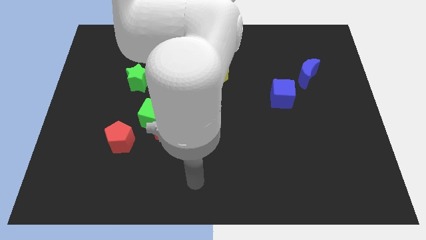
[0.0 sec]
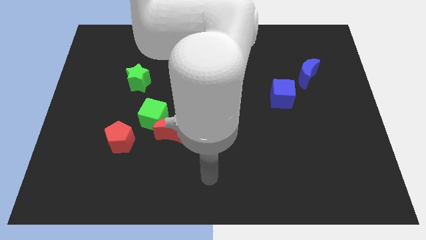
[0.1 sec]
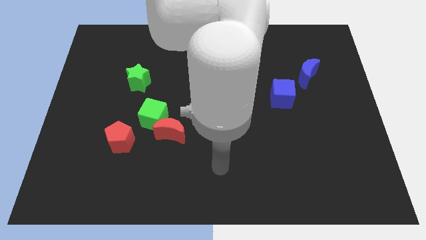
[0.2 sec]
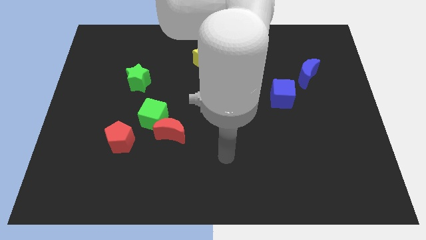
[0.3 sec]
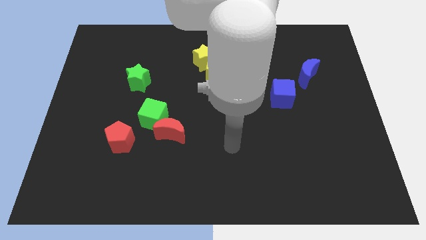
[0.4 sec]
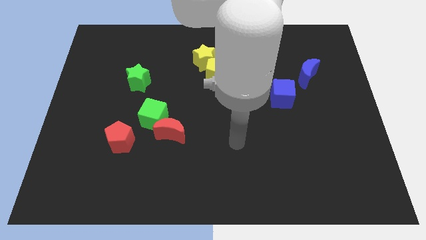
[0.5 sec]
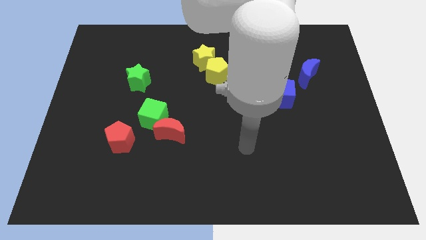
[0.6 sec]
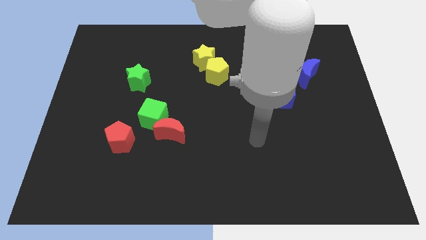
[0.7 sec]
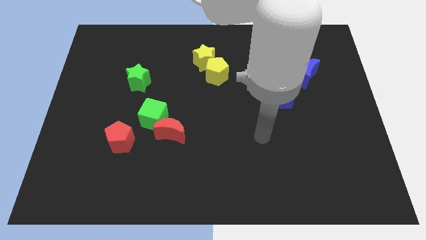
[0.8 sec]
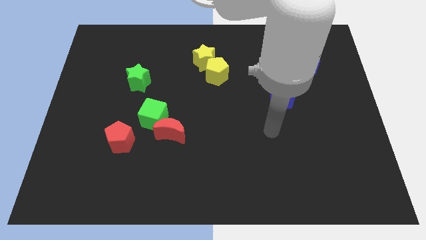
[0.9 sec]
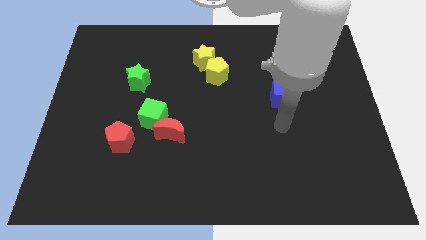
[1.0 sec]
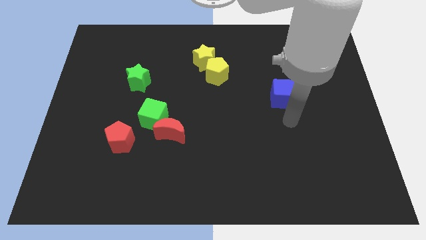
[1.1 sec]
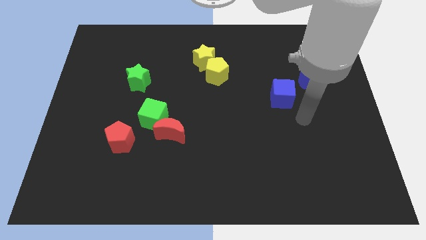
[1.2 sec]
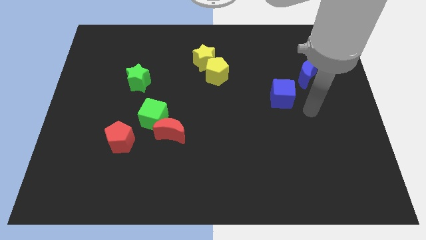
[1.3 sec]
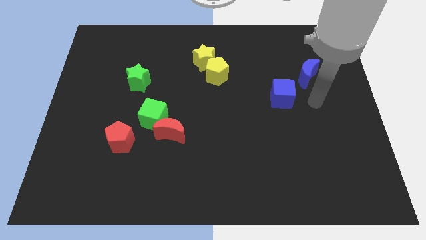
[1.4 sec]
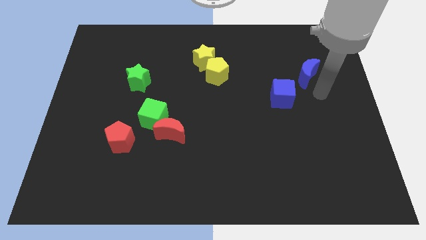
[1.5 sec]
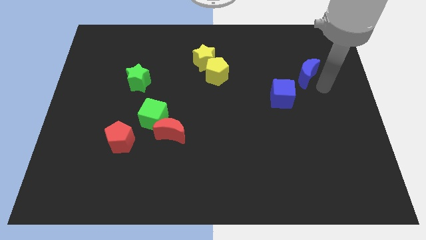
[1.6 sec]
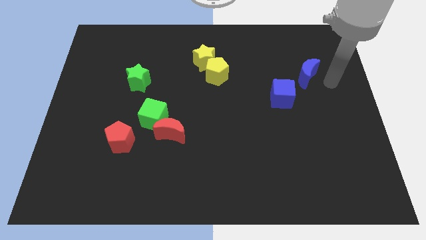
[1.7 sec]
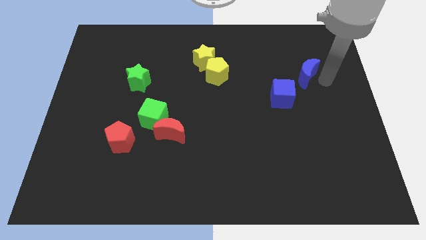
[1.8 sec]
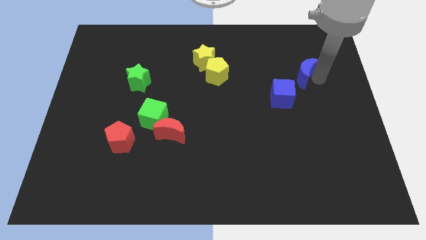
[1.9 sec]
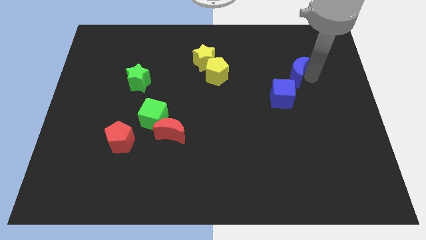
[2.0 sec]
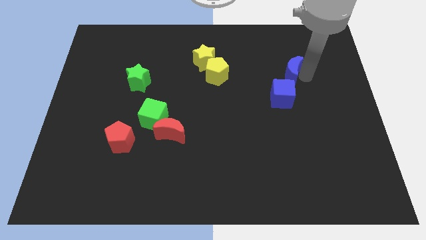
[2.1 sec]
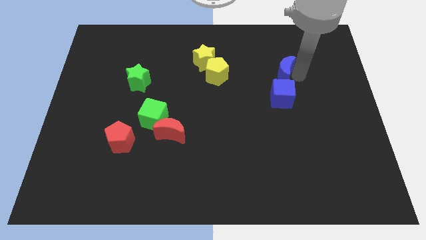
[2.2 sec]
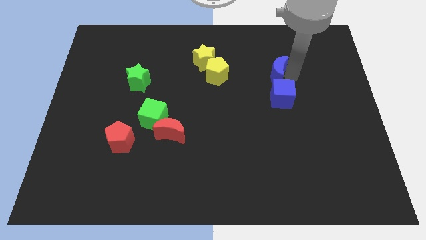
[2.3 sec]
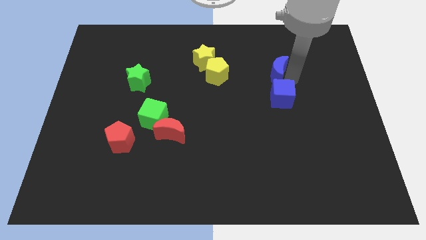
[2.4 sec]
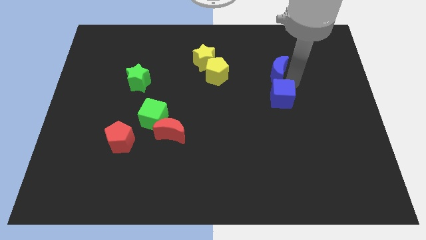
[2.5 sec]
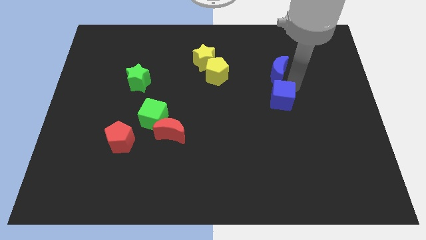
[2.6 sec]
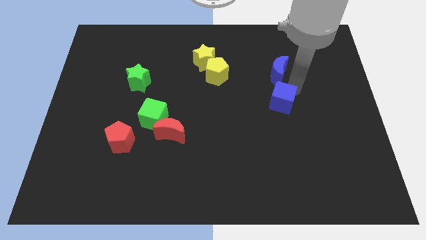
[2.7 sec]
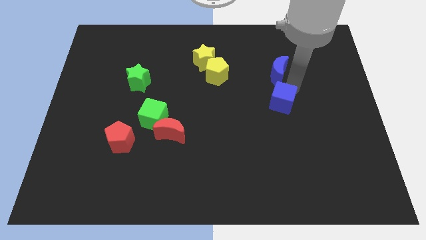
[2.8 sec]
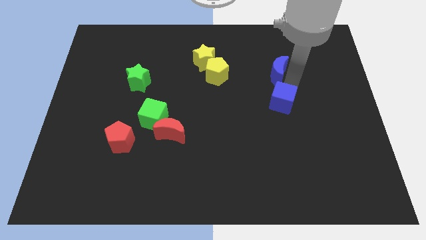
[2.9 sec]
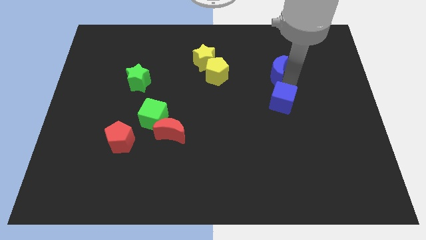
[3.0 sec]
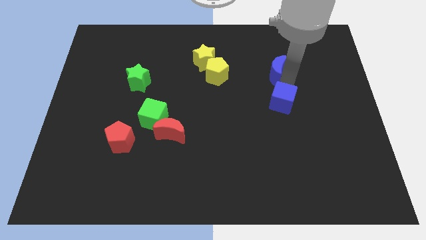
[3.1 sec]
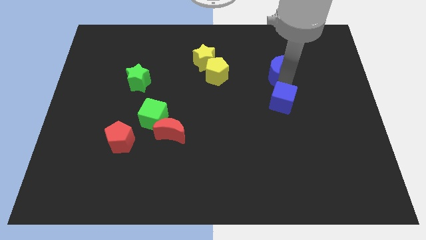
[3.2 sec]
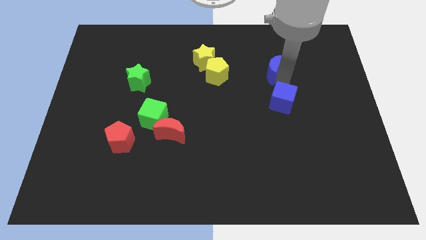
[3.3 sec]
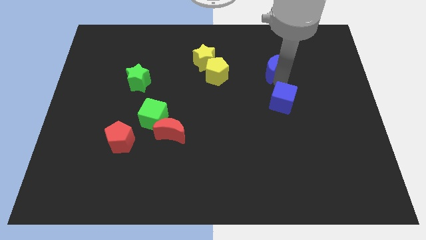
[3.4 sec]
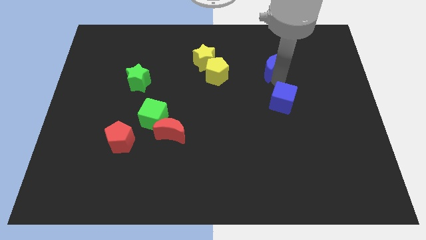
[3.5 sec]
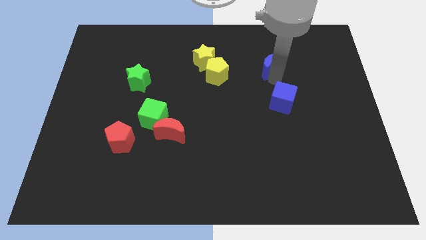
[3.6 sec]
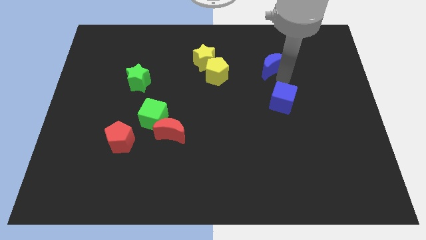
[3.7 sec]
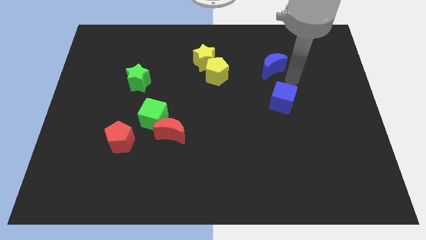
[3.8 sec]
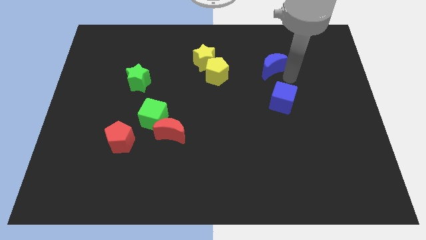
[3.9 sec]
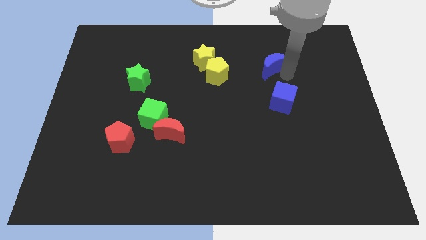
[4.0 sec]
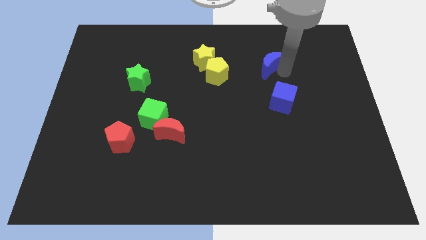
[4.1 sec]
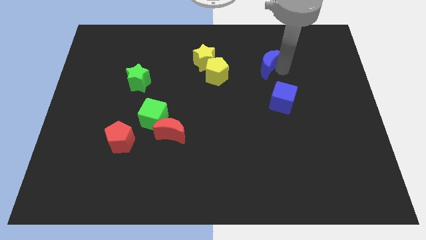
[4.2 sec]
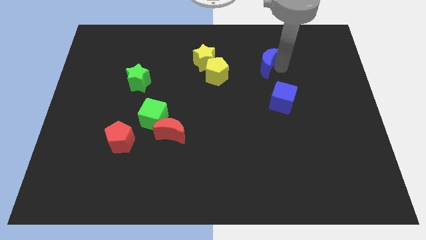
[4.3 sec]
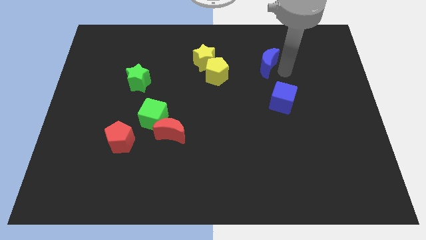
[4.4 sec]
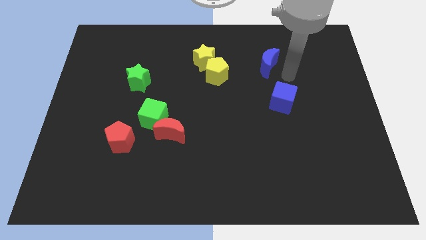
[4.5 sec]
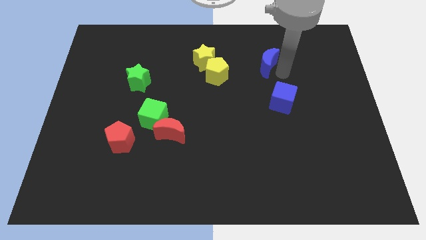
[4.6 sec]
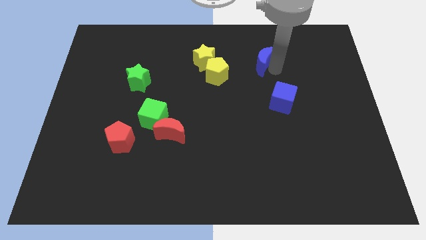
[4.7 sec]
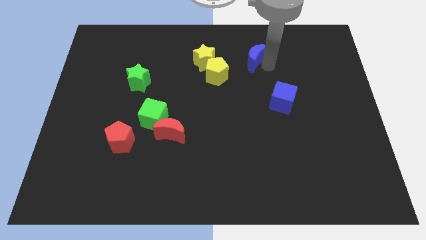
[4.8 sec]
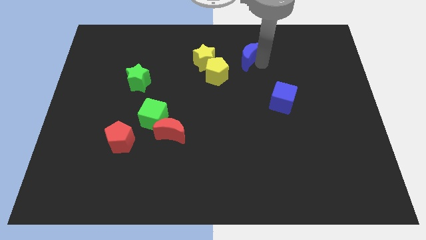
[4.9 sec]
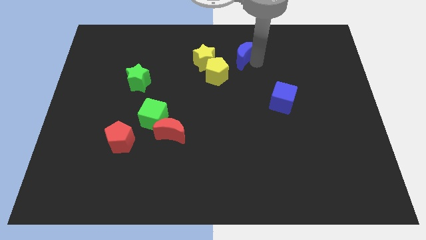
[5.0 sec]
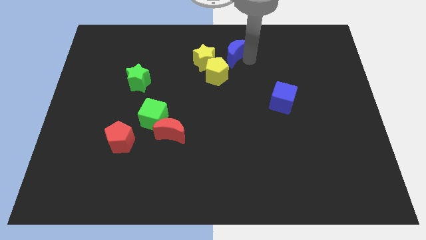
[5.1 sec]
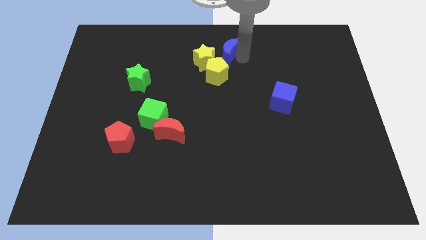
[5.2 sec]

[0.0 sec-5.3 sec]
put the blue moon to the top side

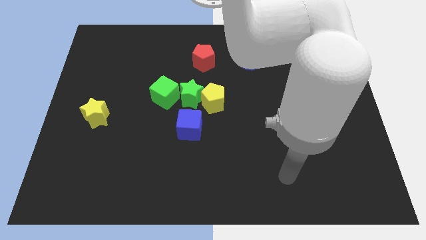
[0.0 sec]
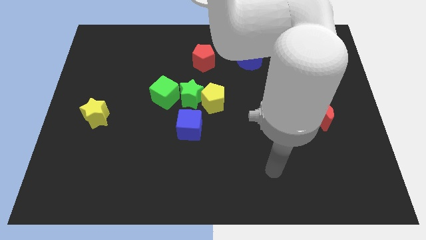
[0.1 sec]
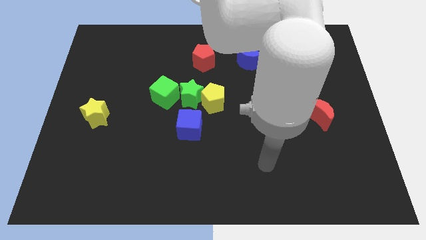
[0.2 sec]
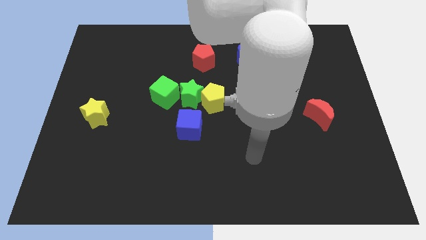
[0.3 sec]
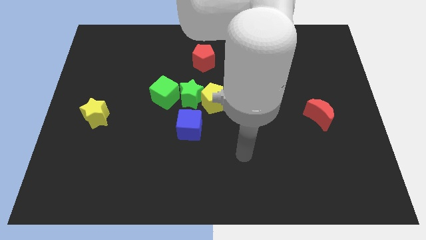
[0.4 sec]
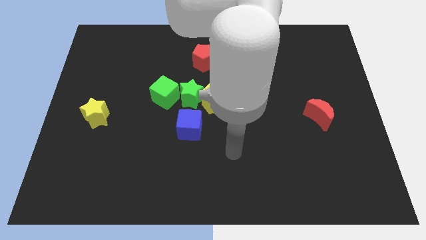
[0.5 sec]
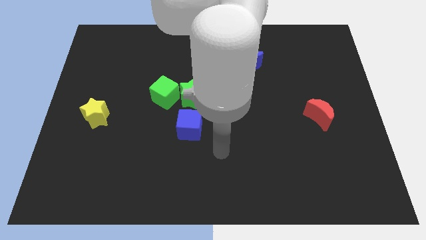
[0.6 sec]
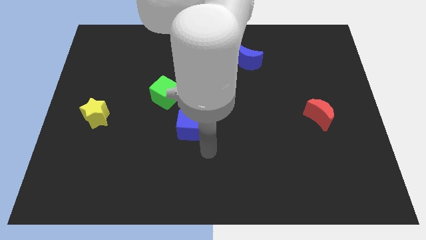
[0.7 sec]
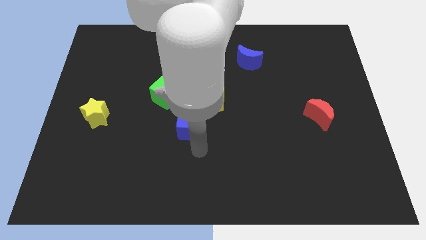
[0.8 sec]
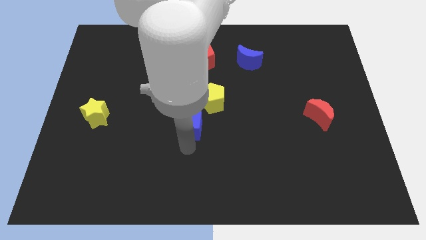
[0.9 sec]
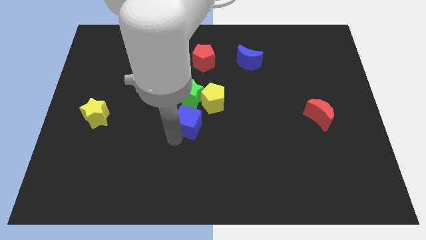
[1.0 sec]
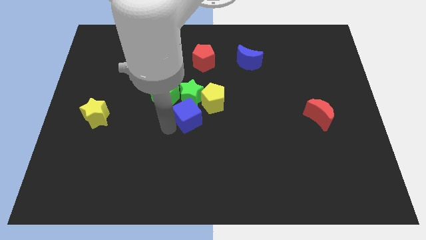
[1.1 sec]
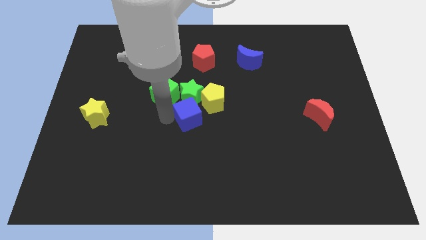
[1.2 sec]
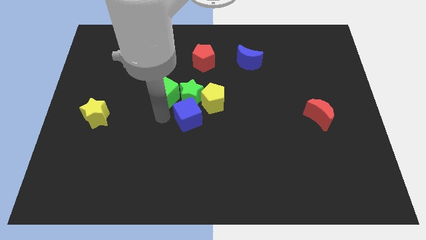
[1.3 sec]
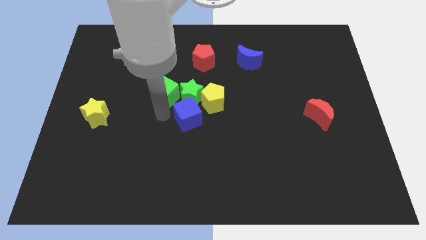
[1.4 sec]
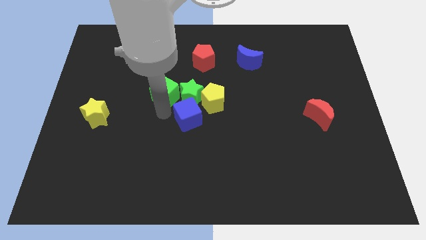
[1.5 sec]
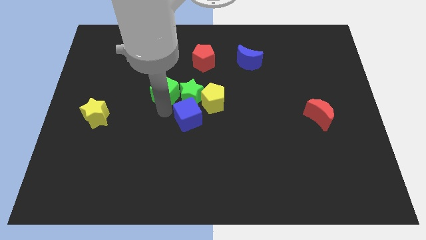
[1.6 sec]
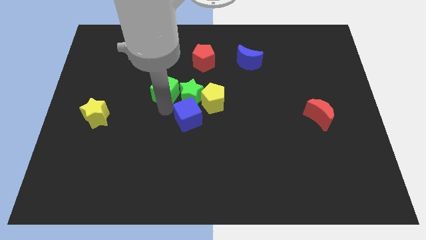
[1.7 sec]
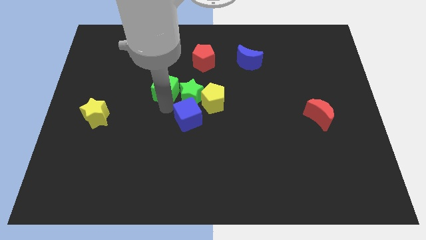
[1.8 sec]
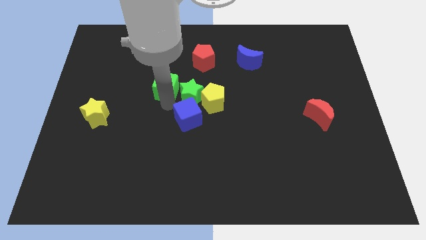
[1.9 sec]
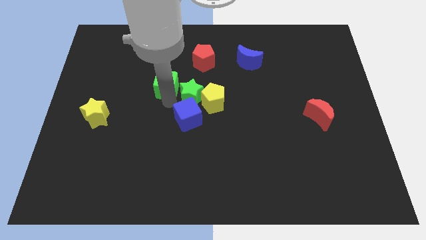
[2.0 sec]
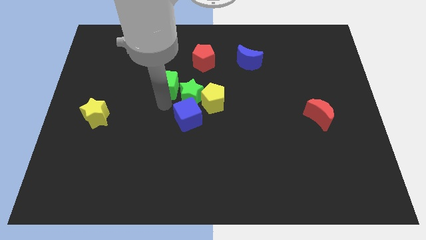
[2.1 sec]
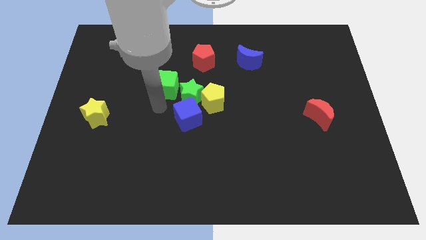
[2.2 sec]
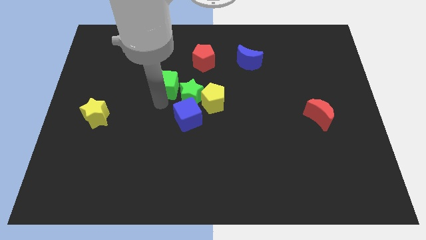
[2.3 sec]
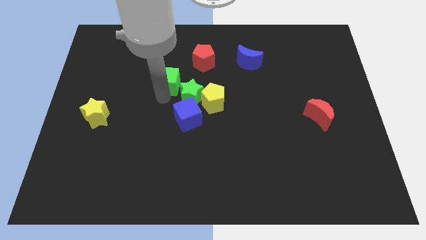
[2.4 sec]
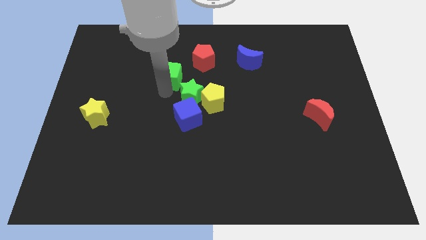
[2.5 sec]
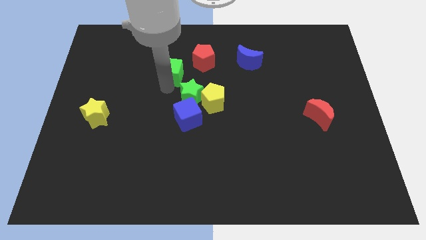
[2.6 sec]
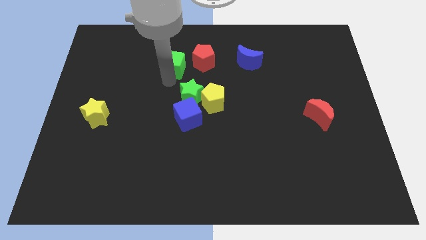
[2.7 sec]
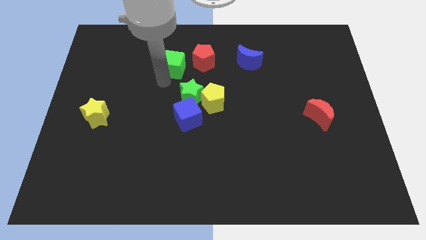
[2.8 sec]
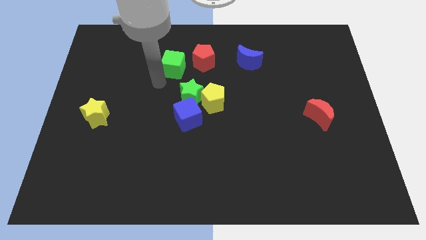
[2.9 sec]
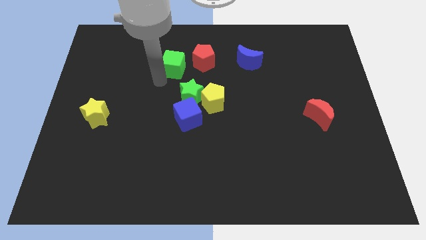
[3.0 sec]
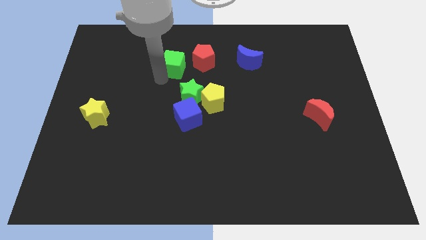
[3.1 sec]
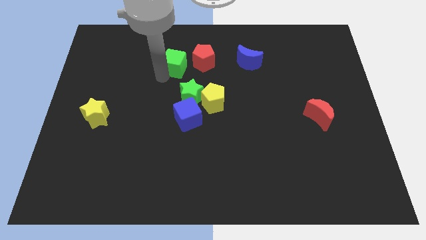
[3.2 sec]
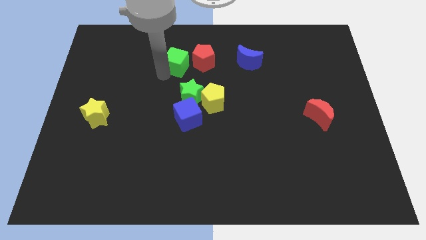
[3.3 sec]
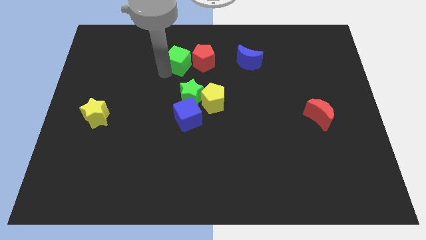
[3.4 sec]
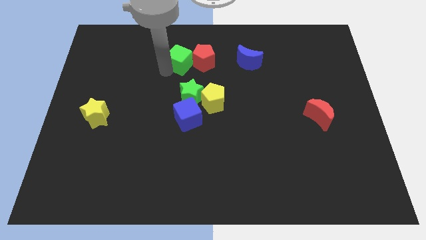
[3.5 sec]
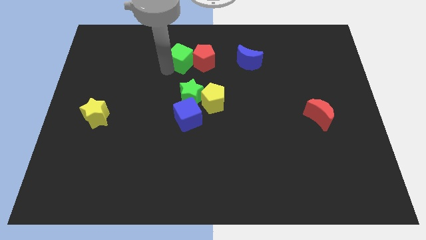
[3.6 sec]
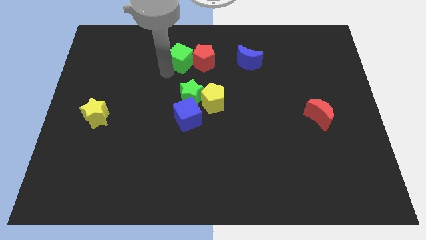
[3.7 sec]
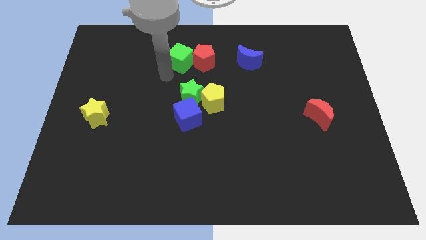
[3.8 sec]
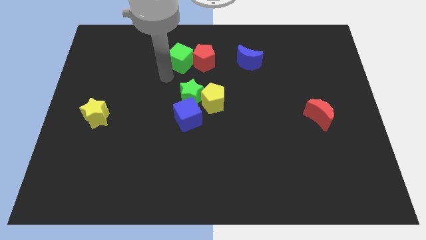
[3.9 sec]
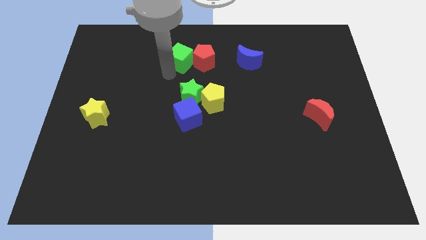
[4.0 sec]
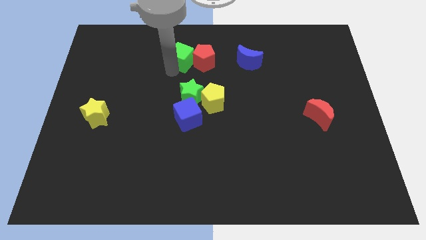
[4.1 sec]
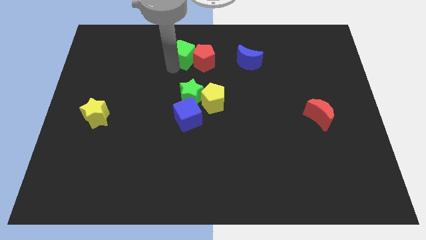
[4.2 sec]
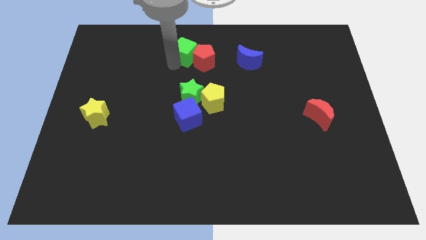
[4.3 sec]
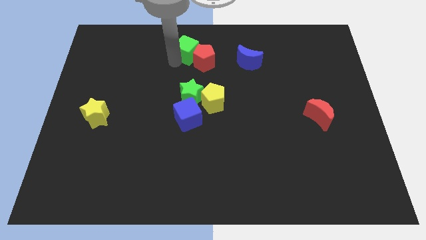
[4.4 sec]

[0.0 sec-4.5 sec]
push the green cube to the towards your base
